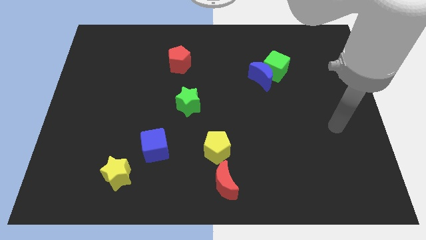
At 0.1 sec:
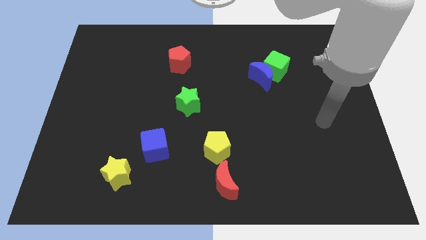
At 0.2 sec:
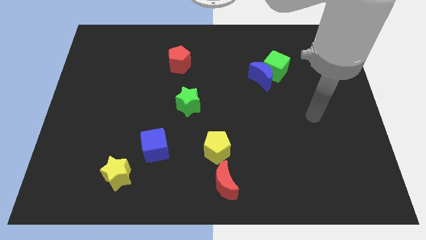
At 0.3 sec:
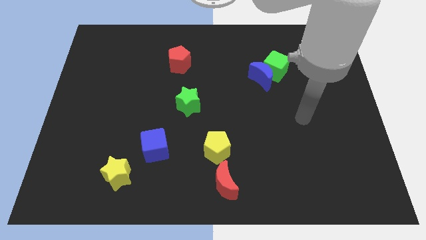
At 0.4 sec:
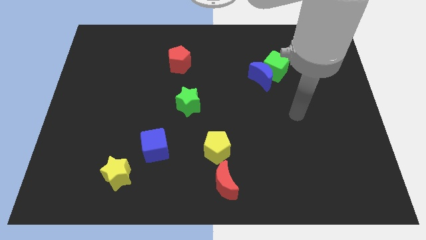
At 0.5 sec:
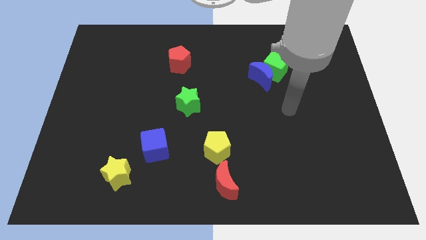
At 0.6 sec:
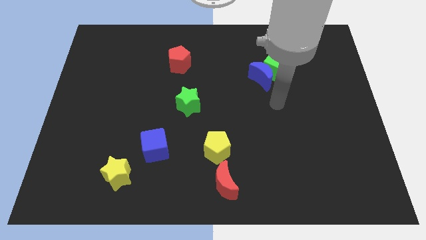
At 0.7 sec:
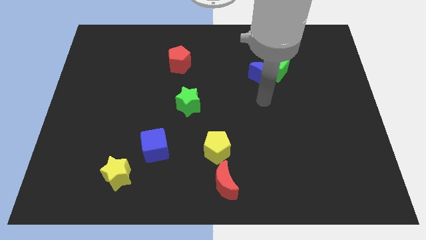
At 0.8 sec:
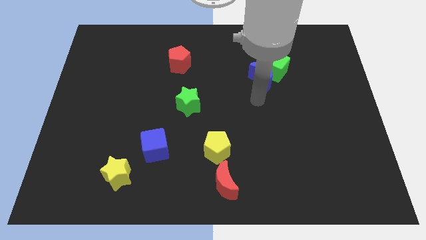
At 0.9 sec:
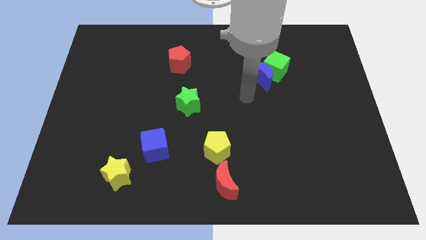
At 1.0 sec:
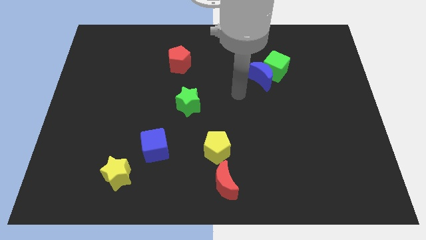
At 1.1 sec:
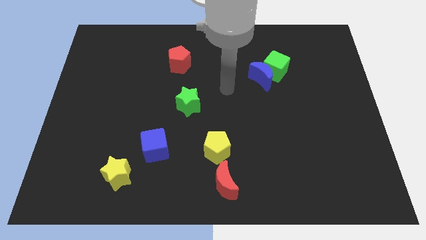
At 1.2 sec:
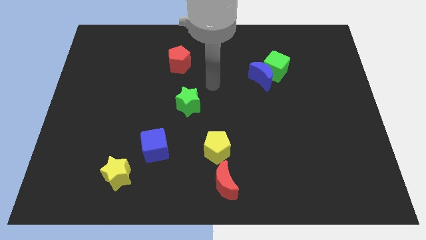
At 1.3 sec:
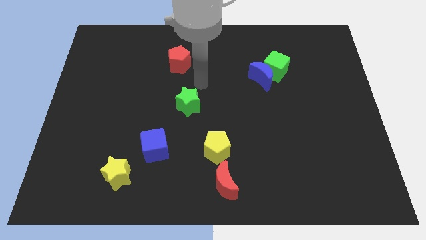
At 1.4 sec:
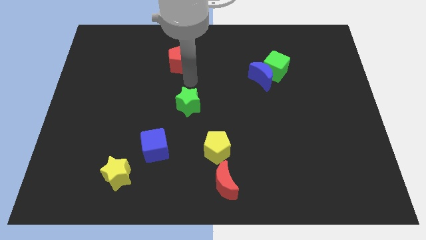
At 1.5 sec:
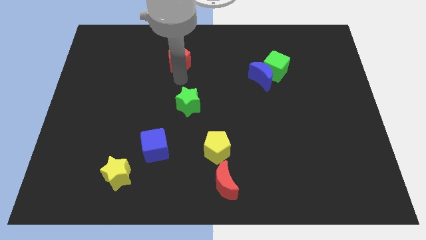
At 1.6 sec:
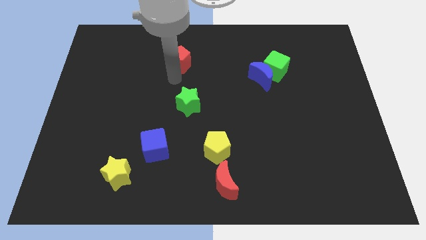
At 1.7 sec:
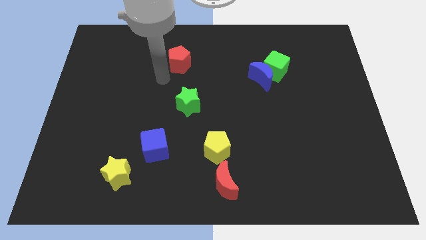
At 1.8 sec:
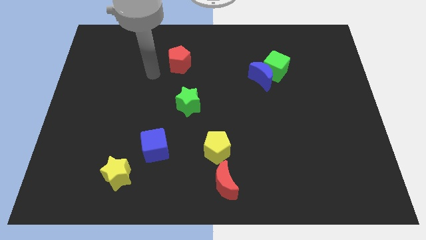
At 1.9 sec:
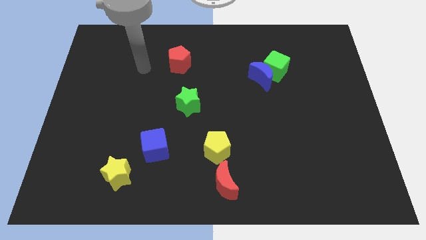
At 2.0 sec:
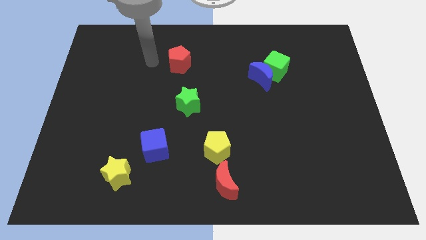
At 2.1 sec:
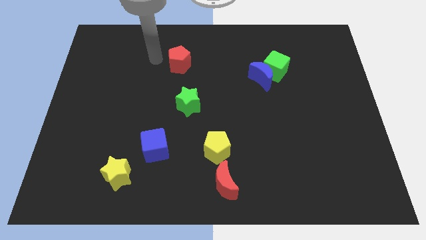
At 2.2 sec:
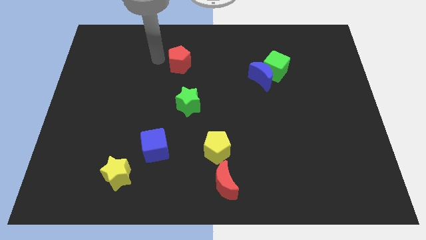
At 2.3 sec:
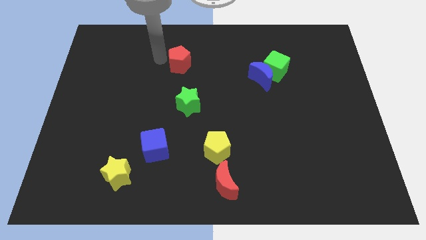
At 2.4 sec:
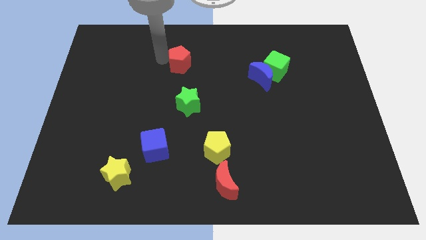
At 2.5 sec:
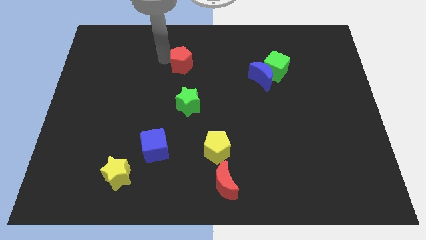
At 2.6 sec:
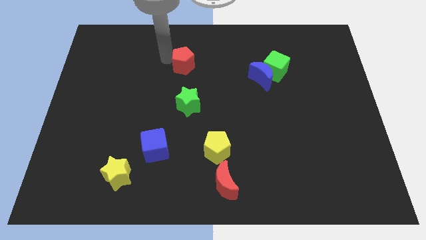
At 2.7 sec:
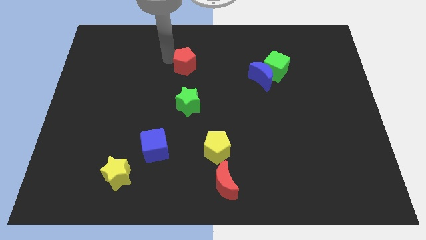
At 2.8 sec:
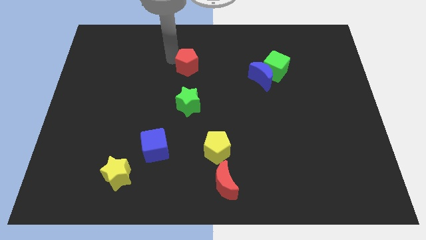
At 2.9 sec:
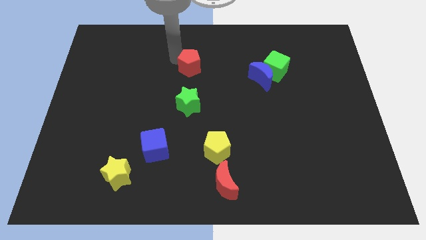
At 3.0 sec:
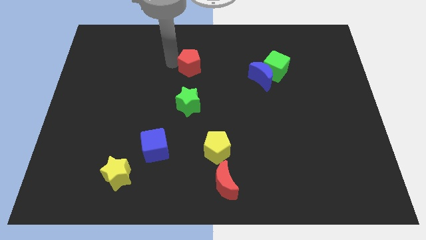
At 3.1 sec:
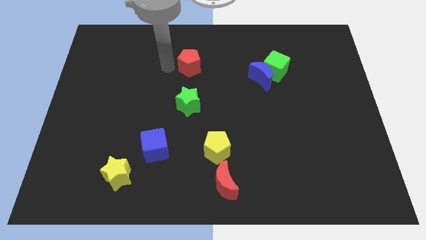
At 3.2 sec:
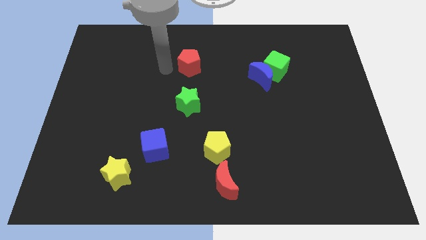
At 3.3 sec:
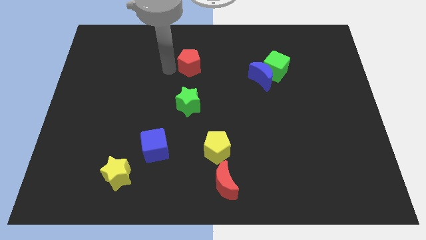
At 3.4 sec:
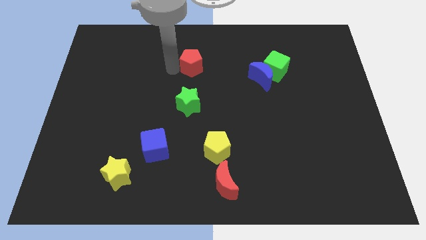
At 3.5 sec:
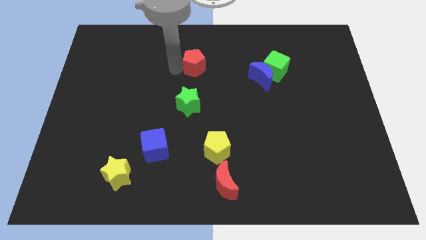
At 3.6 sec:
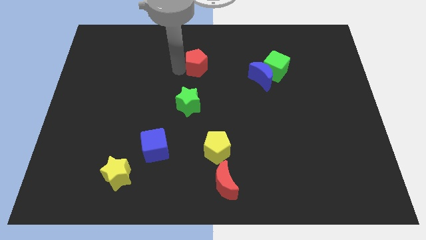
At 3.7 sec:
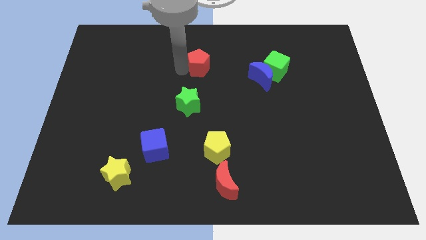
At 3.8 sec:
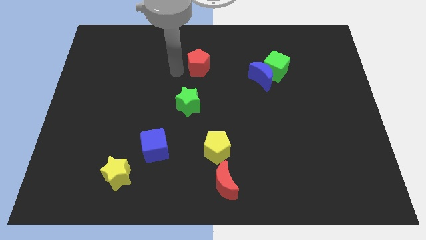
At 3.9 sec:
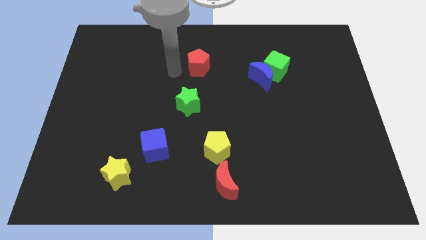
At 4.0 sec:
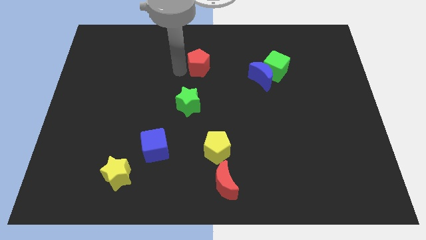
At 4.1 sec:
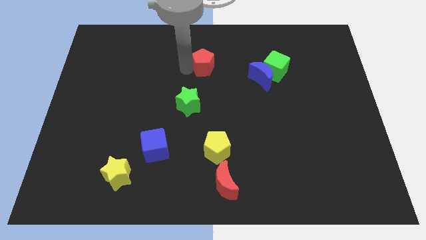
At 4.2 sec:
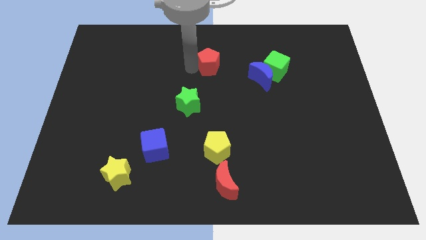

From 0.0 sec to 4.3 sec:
slightly move the red pentagon right

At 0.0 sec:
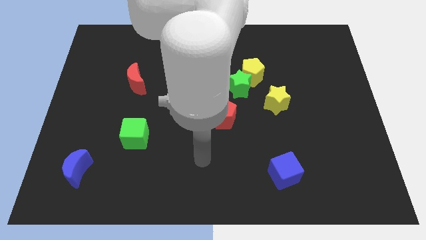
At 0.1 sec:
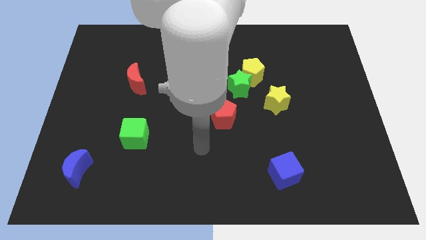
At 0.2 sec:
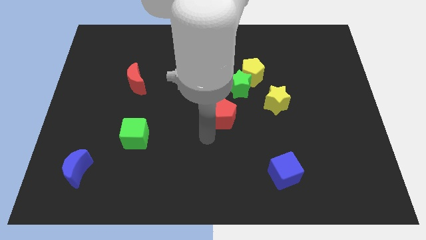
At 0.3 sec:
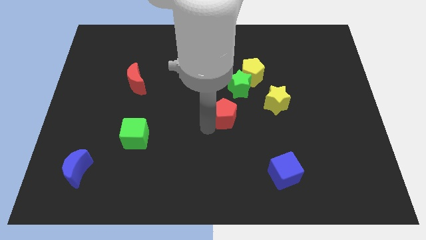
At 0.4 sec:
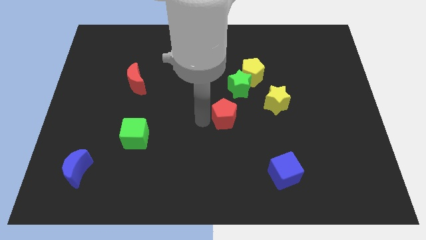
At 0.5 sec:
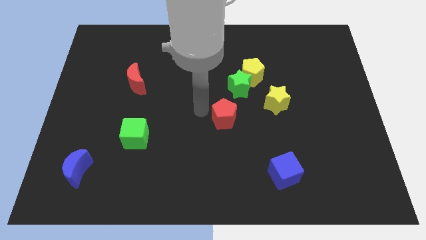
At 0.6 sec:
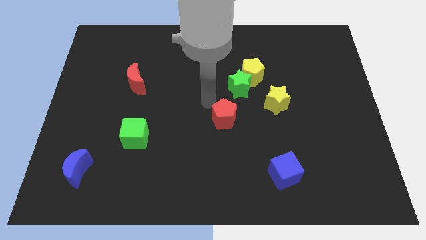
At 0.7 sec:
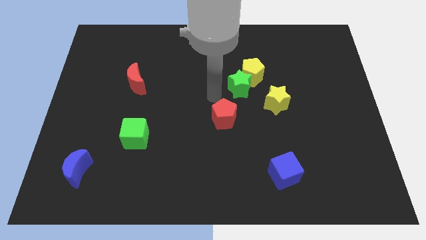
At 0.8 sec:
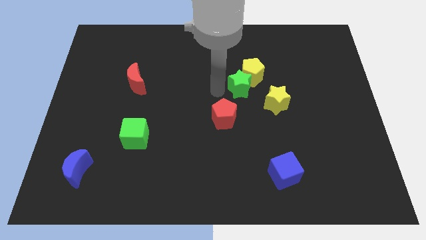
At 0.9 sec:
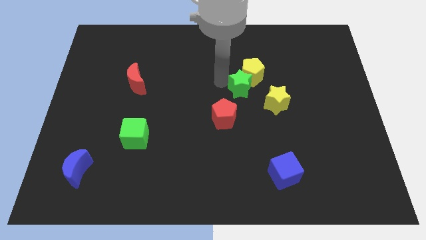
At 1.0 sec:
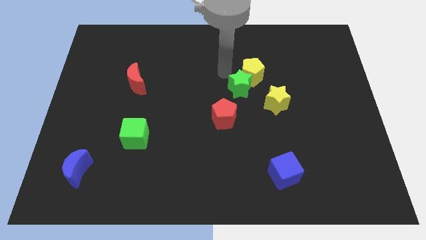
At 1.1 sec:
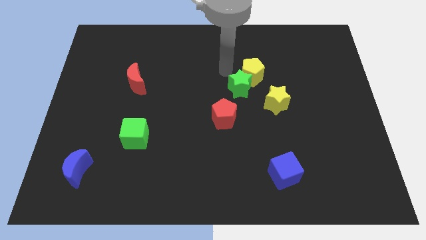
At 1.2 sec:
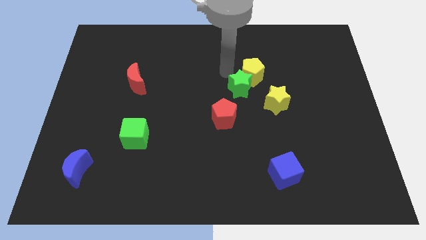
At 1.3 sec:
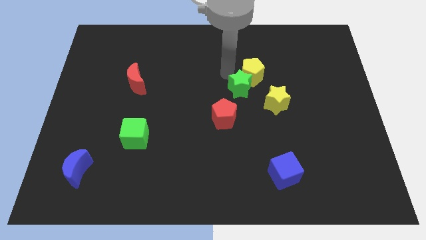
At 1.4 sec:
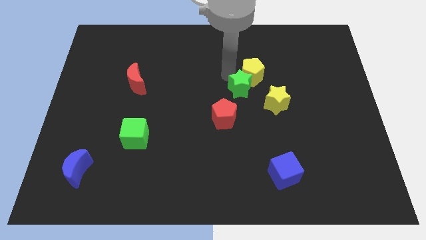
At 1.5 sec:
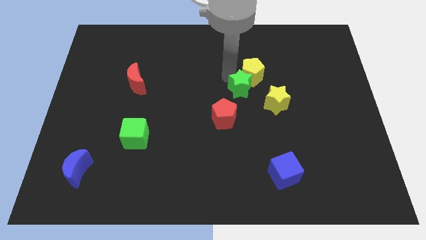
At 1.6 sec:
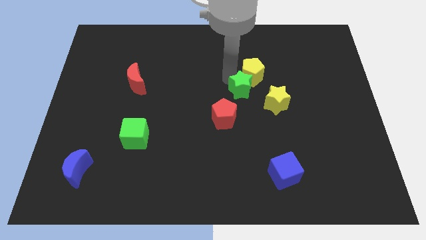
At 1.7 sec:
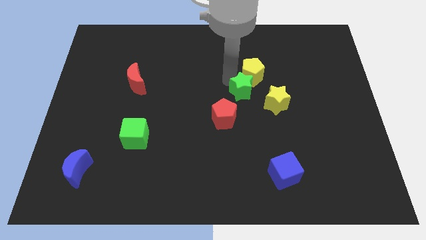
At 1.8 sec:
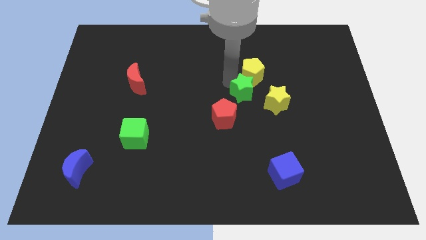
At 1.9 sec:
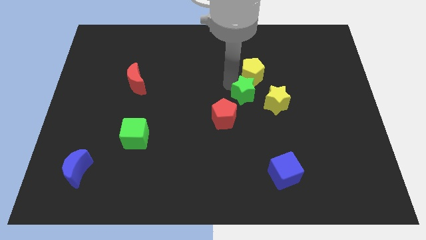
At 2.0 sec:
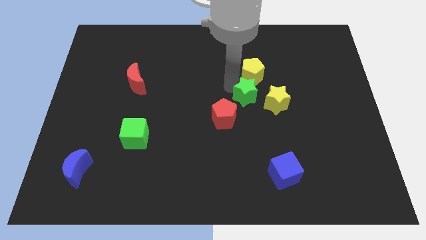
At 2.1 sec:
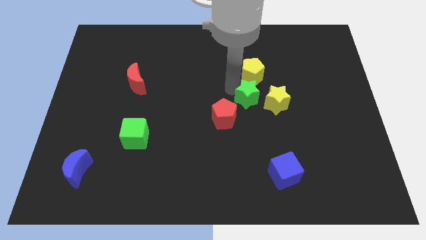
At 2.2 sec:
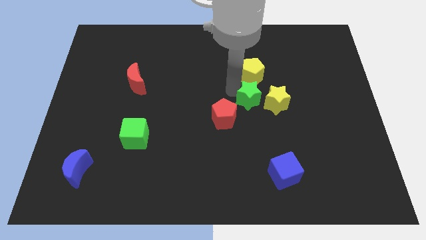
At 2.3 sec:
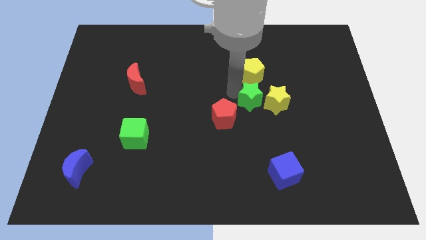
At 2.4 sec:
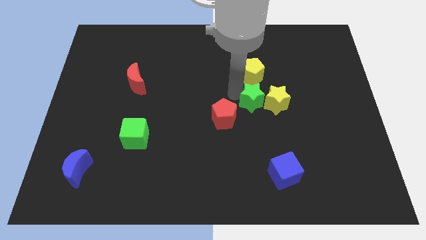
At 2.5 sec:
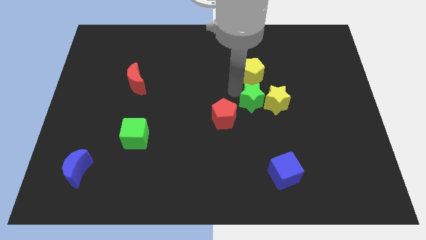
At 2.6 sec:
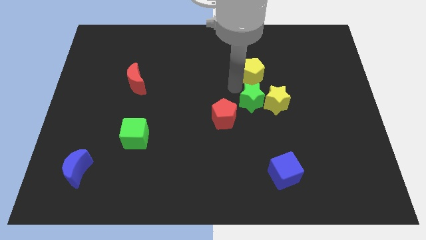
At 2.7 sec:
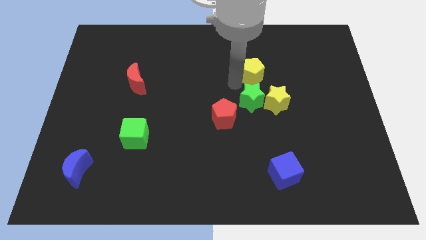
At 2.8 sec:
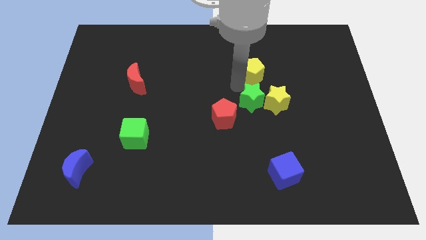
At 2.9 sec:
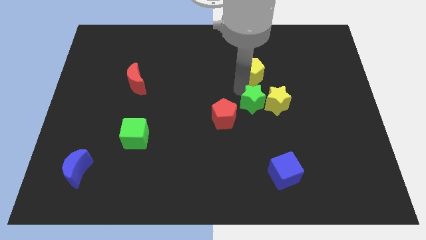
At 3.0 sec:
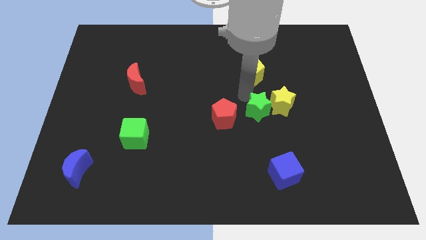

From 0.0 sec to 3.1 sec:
slide the green star a bit diagonally down and to the right

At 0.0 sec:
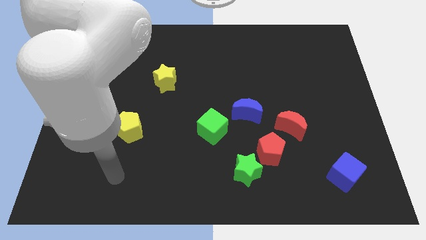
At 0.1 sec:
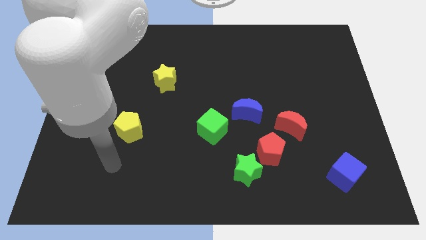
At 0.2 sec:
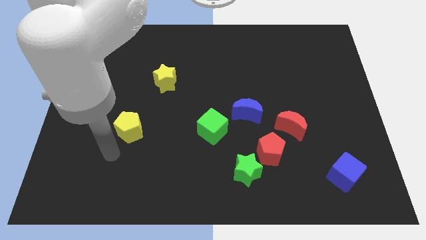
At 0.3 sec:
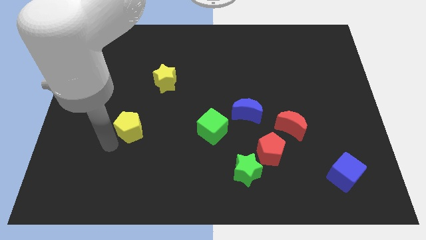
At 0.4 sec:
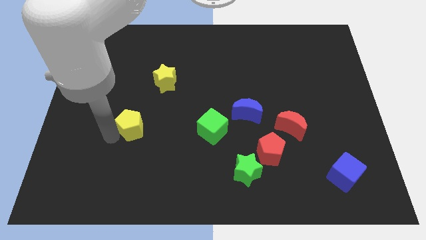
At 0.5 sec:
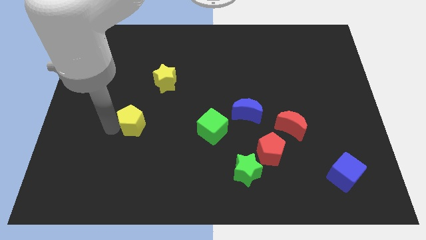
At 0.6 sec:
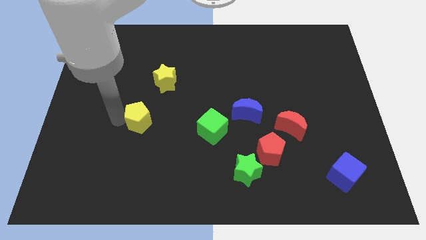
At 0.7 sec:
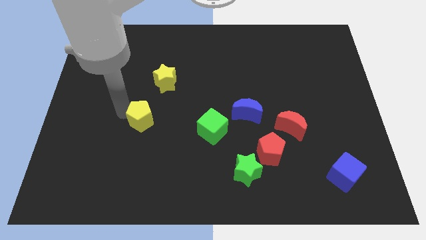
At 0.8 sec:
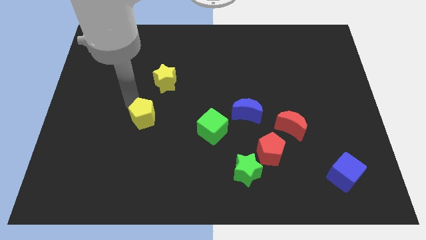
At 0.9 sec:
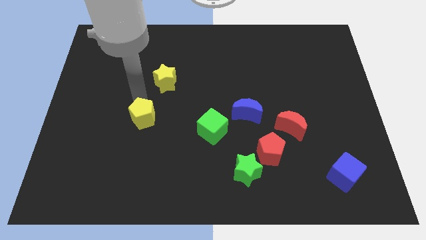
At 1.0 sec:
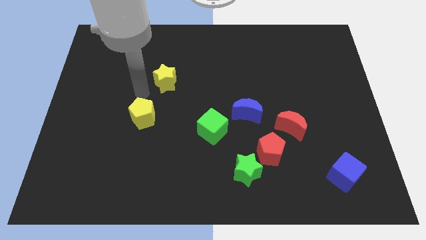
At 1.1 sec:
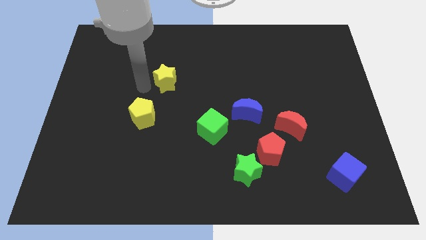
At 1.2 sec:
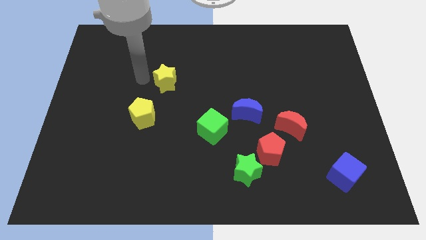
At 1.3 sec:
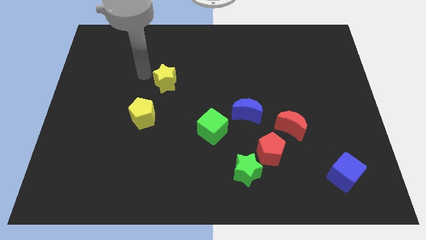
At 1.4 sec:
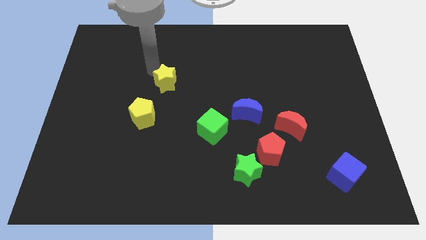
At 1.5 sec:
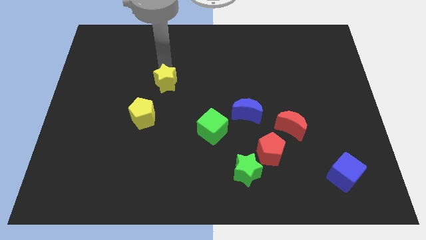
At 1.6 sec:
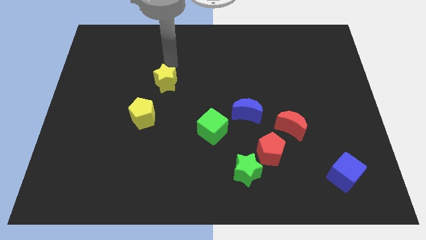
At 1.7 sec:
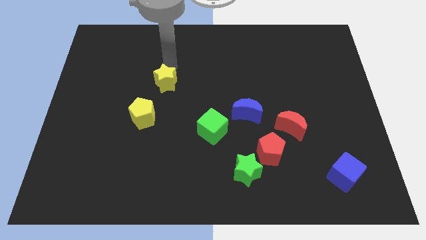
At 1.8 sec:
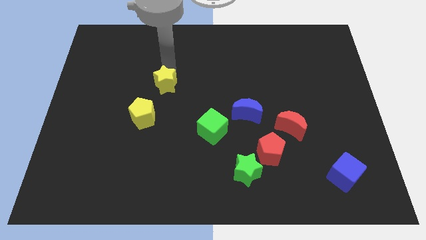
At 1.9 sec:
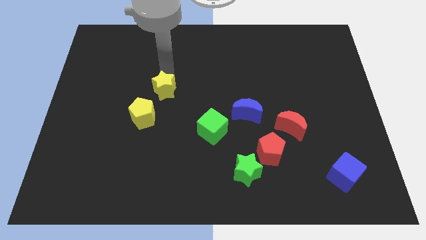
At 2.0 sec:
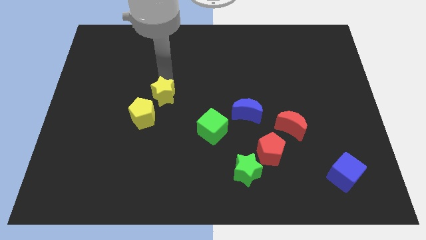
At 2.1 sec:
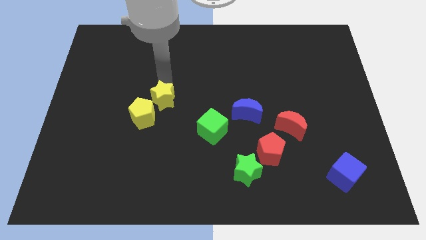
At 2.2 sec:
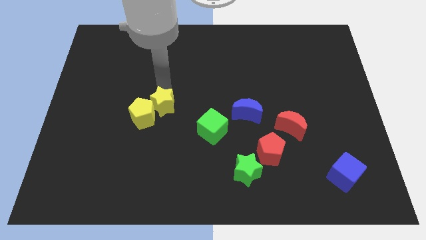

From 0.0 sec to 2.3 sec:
slightly move the yellow star down
